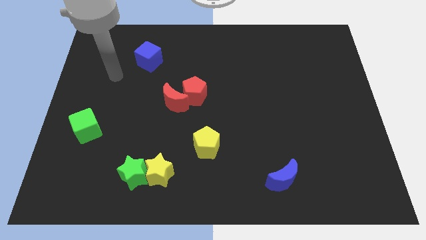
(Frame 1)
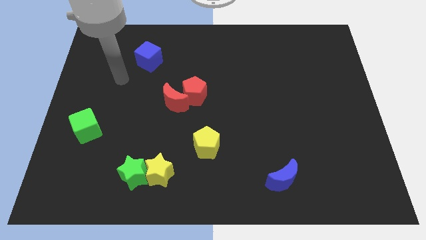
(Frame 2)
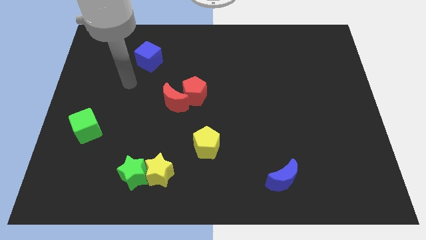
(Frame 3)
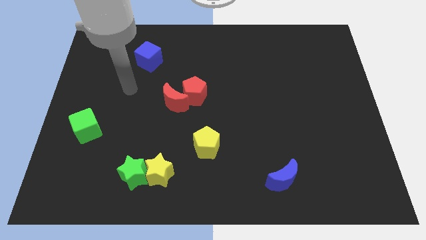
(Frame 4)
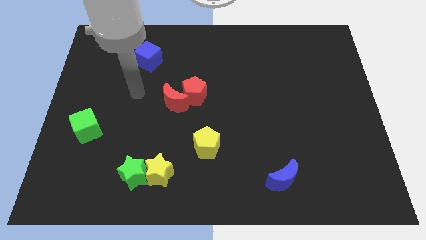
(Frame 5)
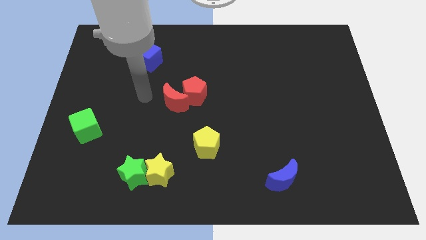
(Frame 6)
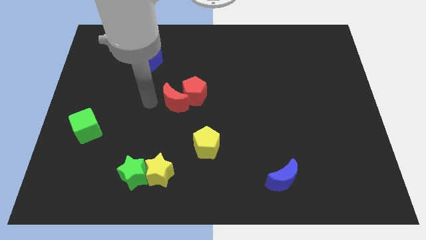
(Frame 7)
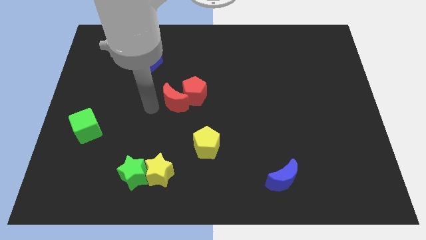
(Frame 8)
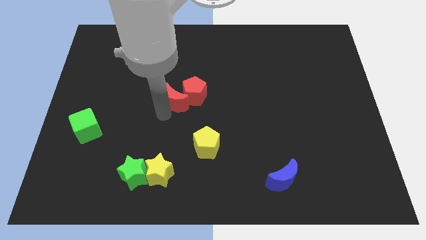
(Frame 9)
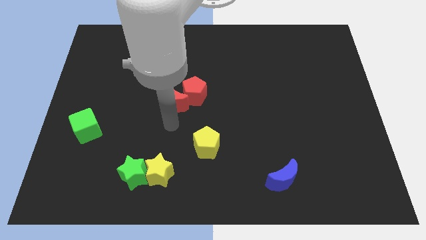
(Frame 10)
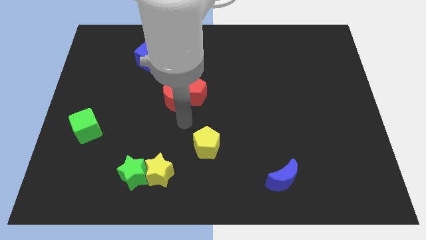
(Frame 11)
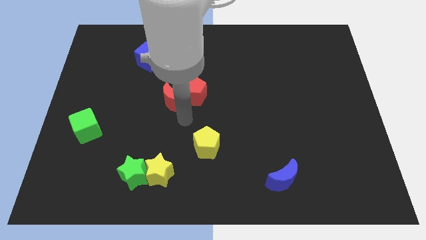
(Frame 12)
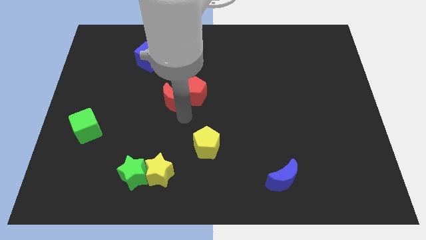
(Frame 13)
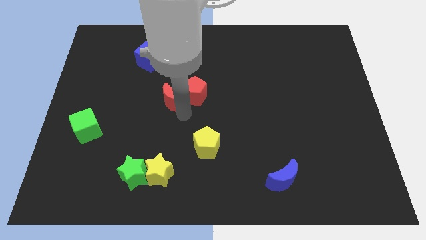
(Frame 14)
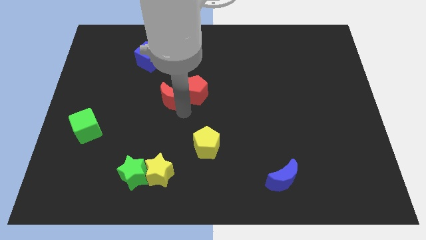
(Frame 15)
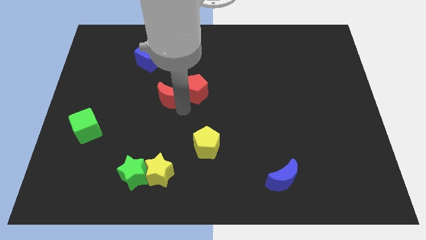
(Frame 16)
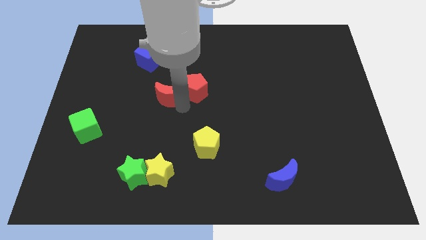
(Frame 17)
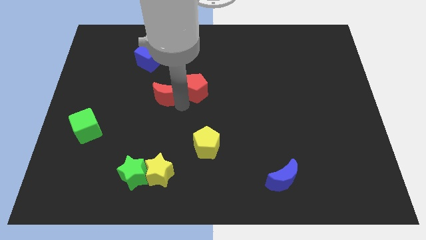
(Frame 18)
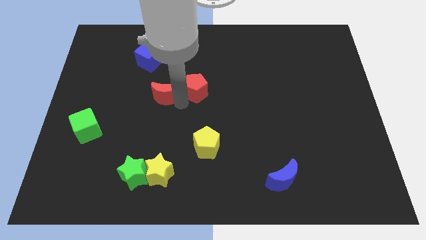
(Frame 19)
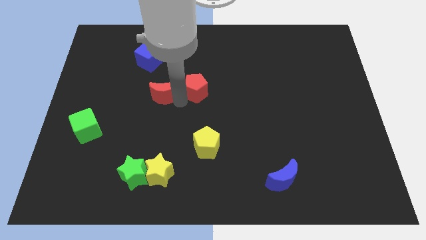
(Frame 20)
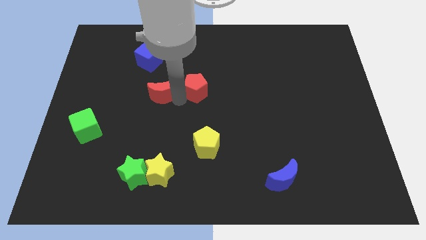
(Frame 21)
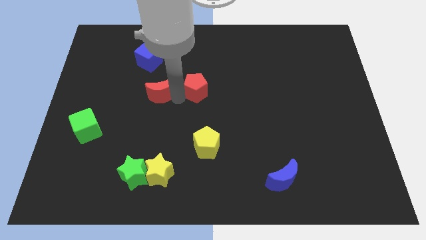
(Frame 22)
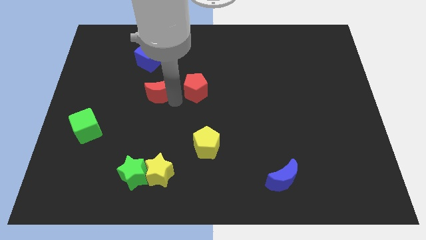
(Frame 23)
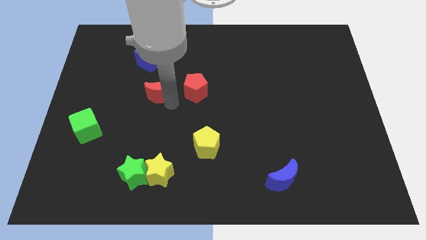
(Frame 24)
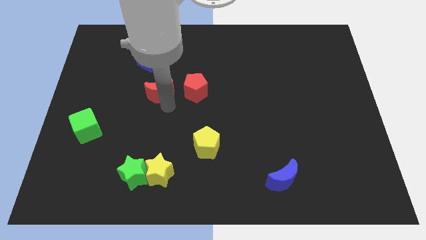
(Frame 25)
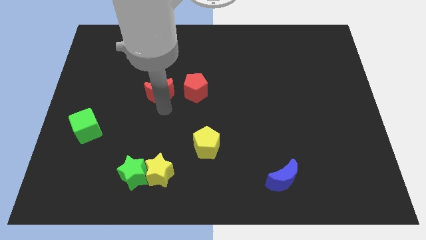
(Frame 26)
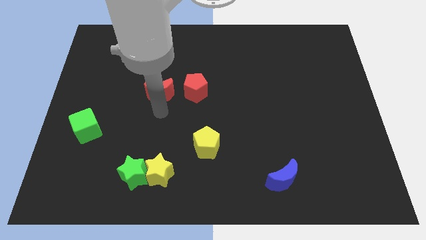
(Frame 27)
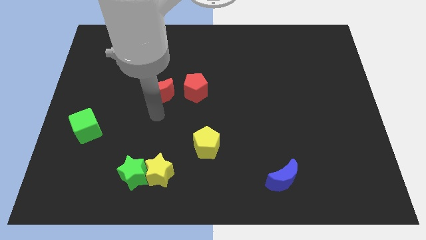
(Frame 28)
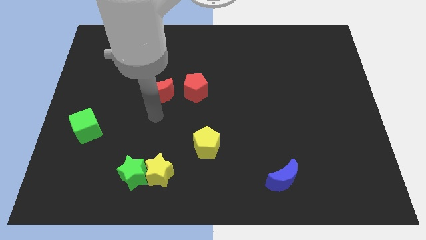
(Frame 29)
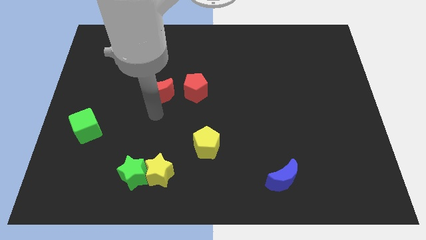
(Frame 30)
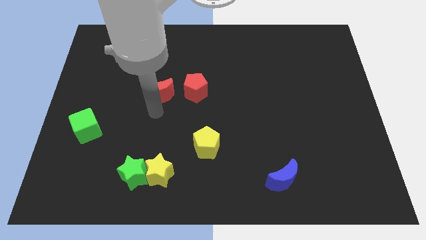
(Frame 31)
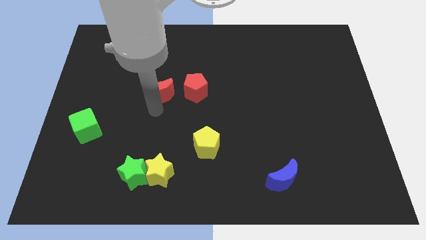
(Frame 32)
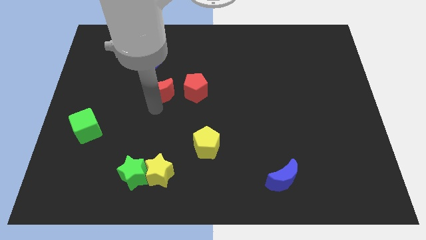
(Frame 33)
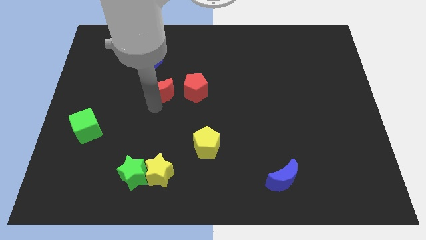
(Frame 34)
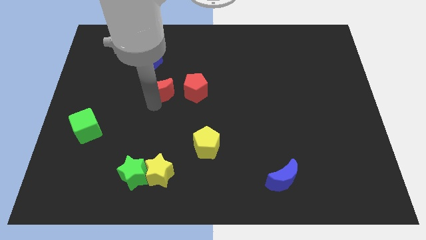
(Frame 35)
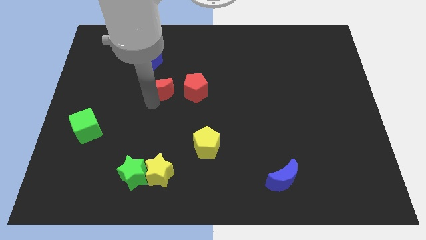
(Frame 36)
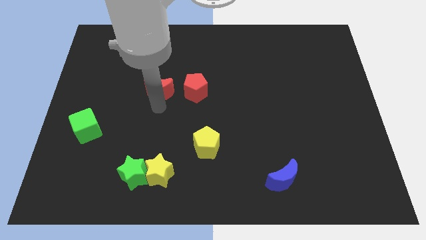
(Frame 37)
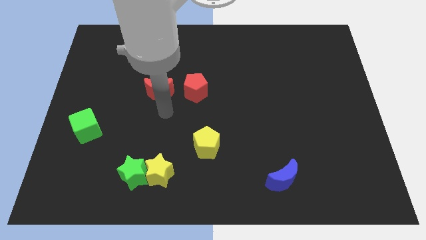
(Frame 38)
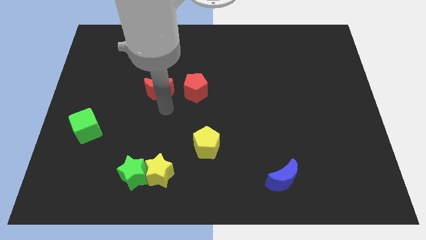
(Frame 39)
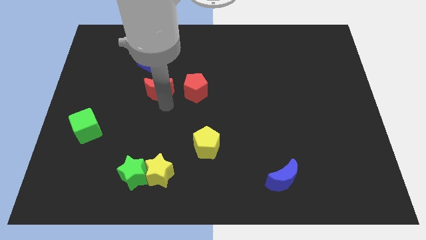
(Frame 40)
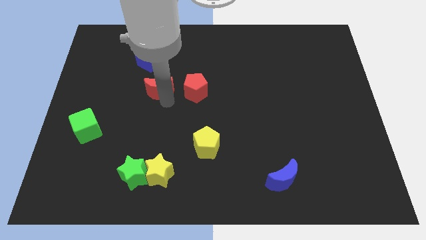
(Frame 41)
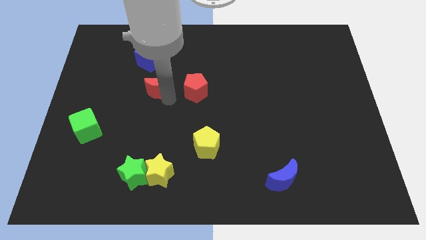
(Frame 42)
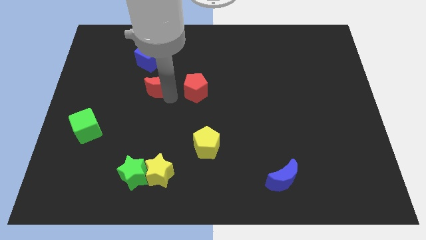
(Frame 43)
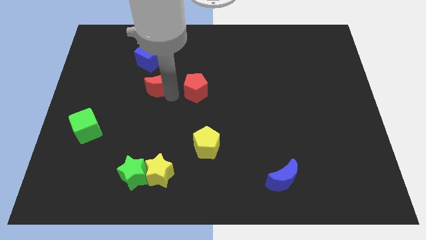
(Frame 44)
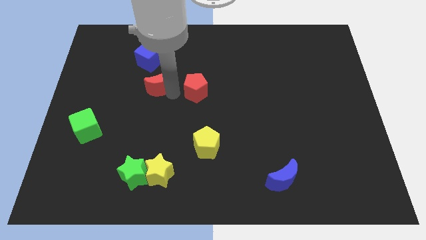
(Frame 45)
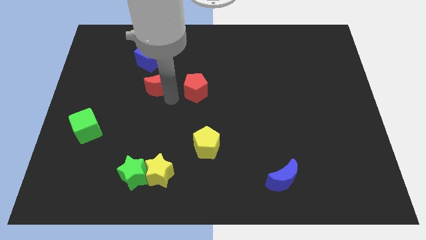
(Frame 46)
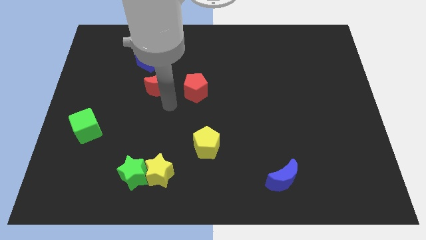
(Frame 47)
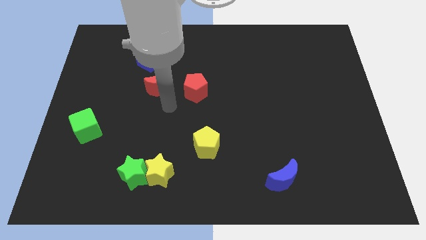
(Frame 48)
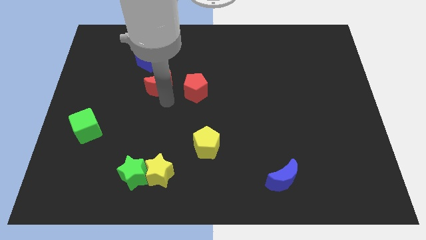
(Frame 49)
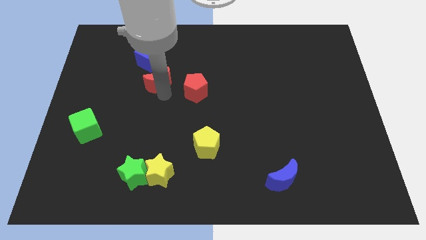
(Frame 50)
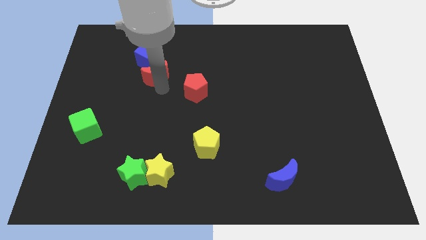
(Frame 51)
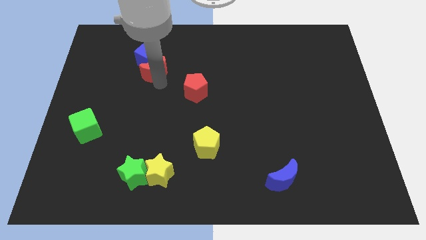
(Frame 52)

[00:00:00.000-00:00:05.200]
slide the red moon towards the blue cube

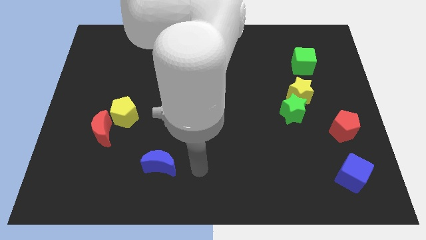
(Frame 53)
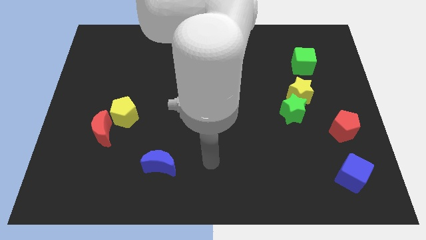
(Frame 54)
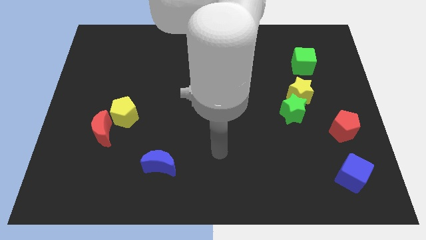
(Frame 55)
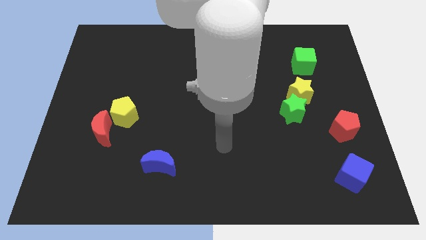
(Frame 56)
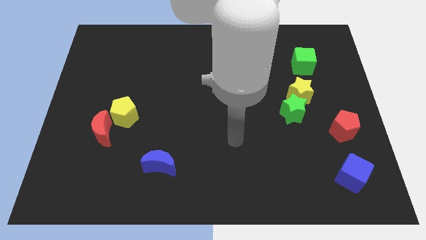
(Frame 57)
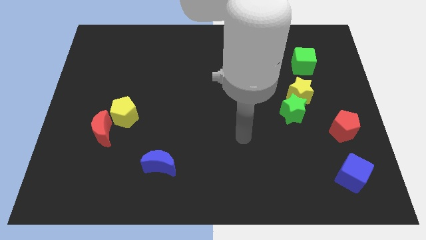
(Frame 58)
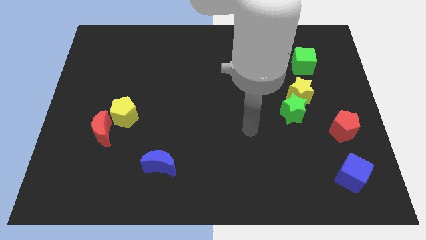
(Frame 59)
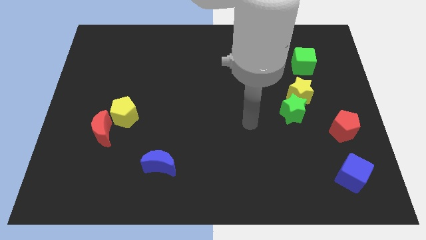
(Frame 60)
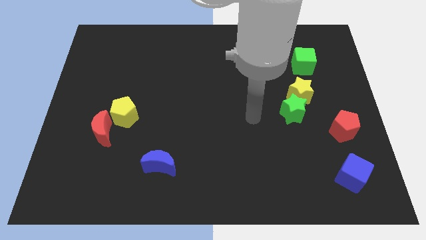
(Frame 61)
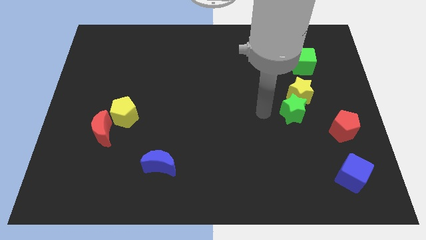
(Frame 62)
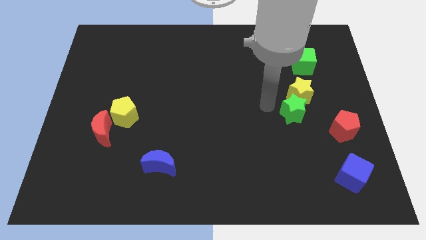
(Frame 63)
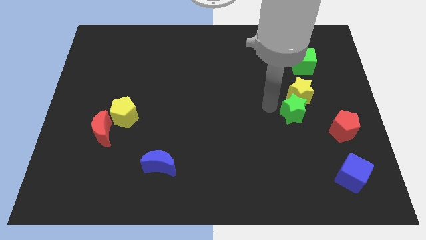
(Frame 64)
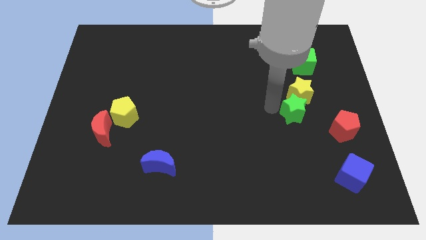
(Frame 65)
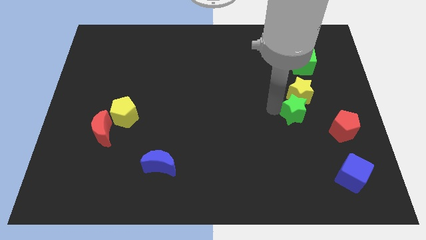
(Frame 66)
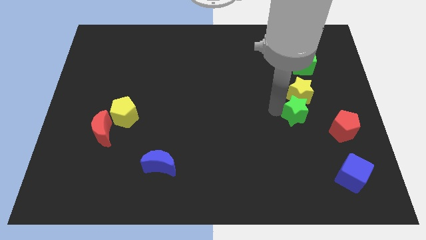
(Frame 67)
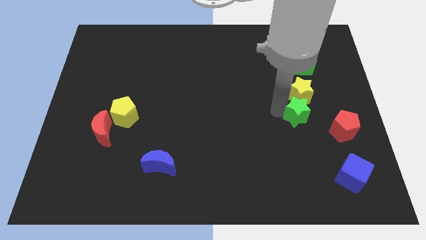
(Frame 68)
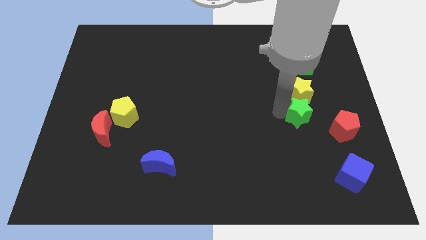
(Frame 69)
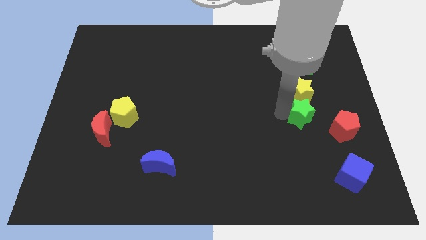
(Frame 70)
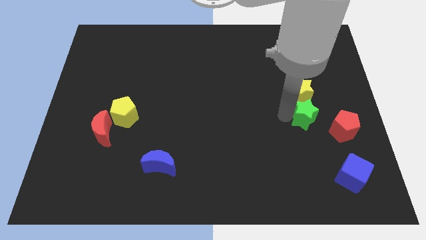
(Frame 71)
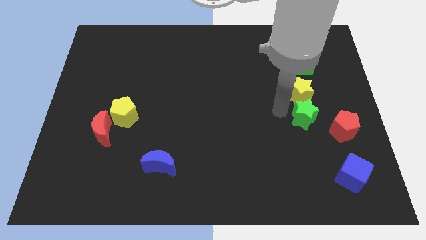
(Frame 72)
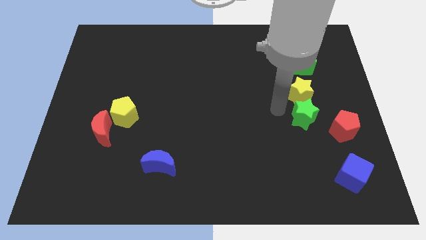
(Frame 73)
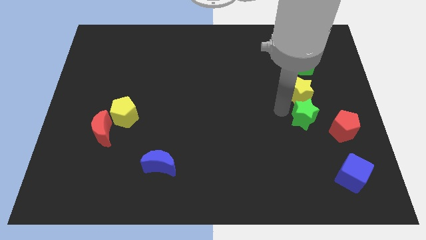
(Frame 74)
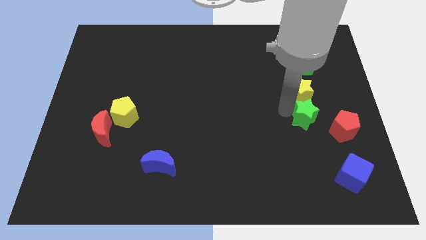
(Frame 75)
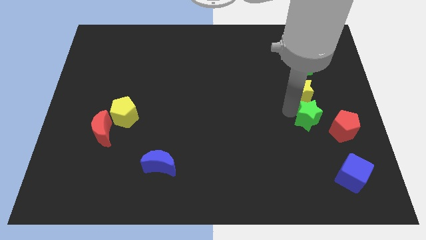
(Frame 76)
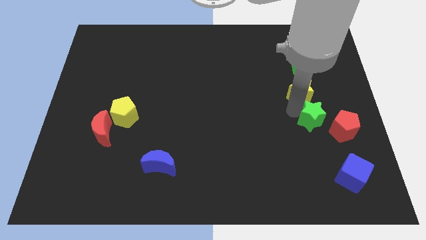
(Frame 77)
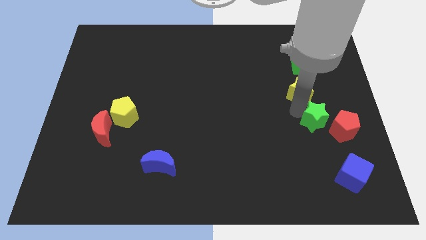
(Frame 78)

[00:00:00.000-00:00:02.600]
move the green star next to the red pentagon

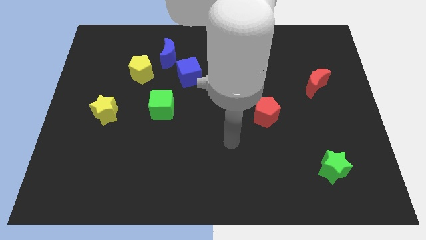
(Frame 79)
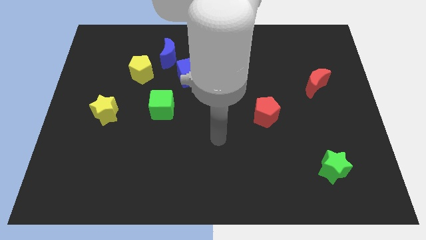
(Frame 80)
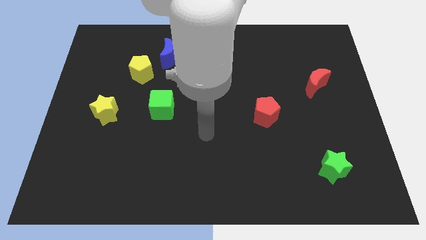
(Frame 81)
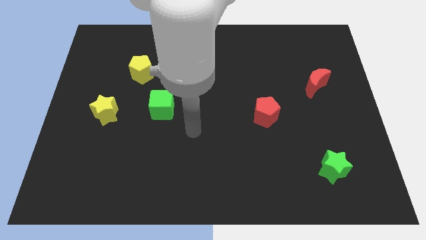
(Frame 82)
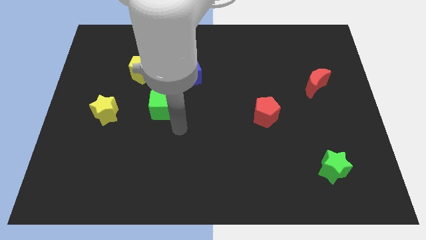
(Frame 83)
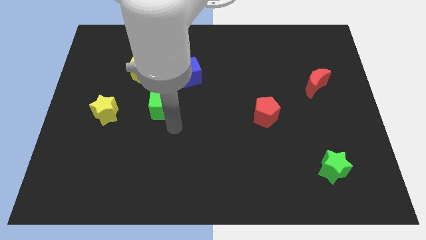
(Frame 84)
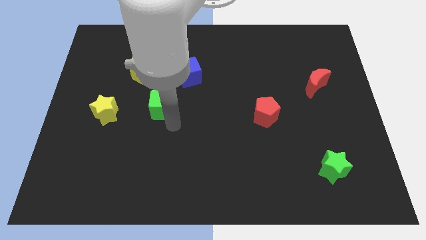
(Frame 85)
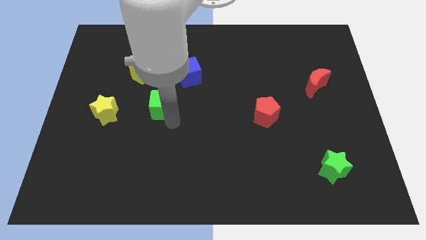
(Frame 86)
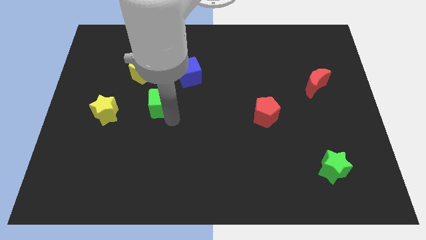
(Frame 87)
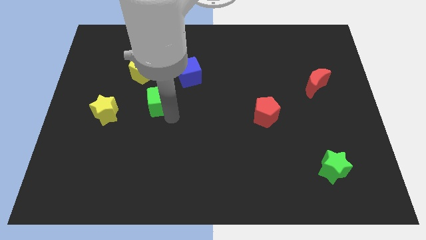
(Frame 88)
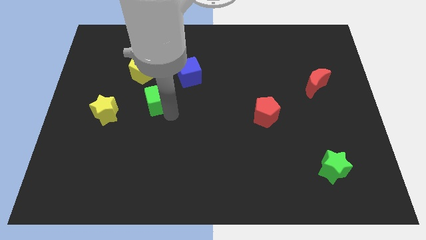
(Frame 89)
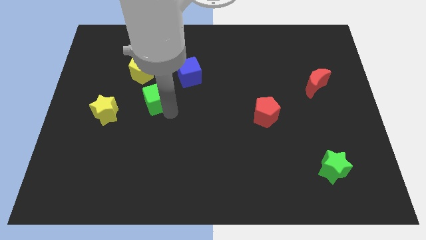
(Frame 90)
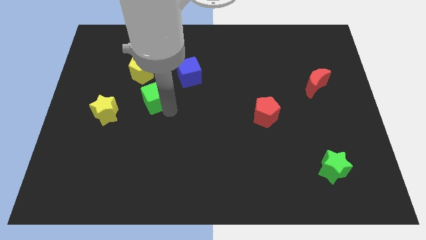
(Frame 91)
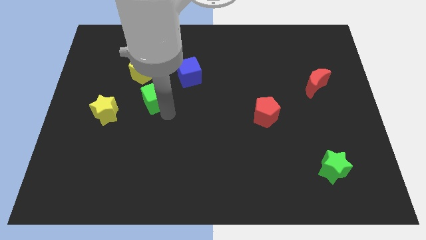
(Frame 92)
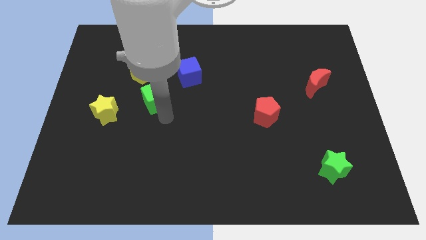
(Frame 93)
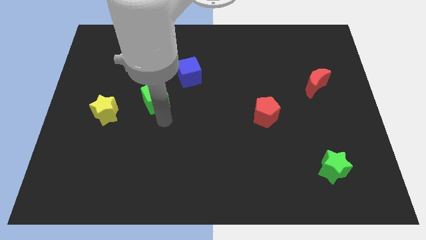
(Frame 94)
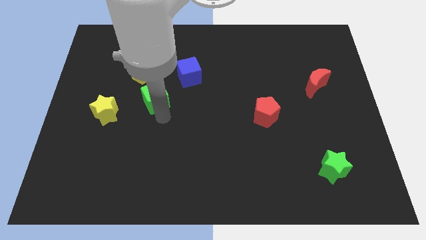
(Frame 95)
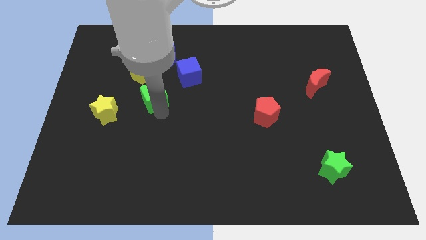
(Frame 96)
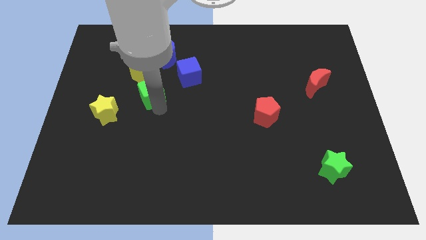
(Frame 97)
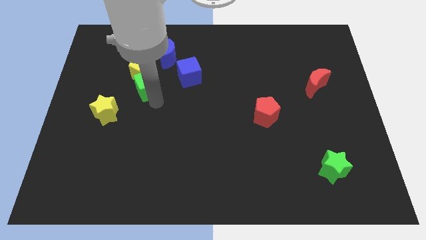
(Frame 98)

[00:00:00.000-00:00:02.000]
slide the green cube to the yellow pentagon
